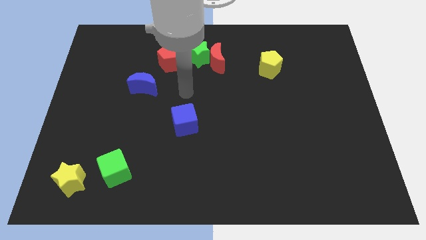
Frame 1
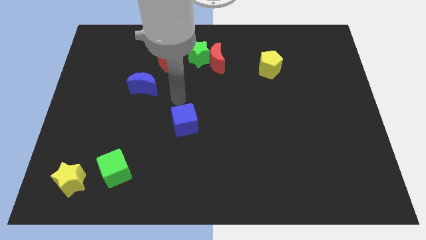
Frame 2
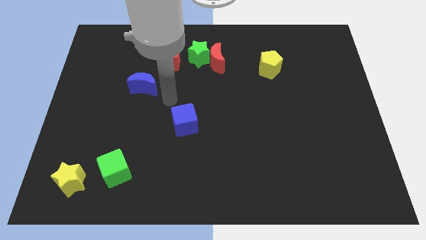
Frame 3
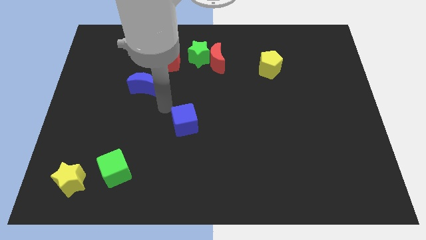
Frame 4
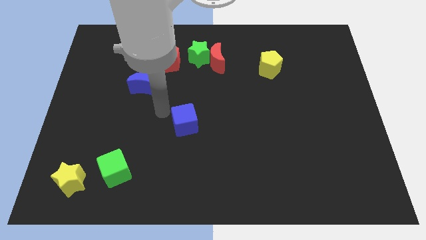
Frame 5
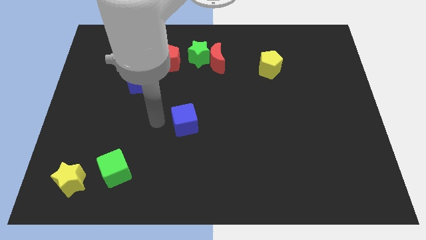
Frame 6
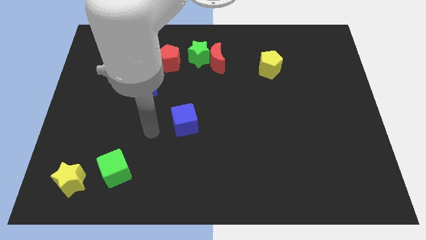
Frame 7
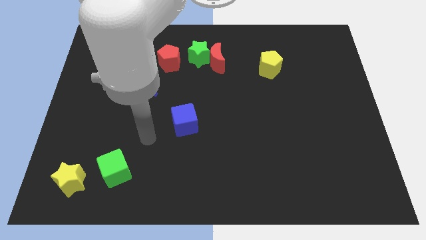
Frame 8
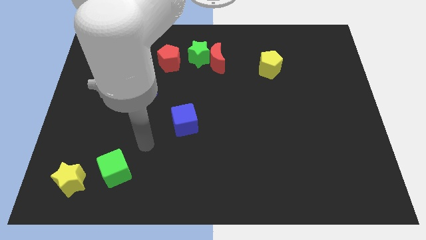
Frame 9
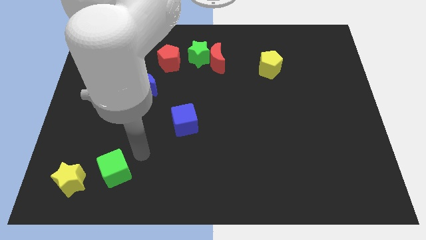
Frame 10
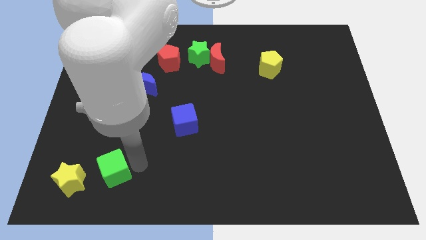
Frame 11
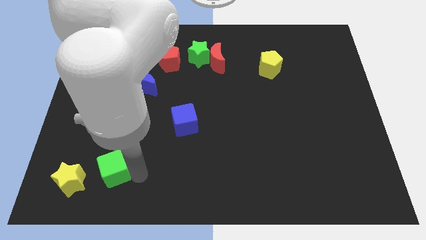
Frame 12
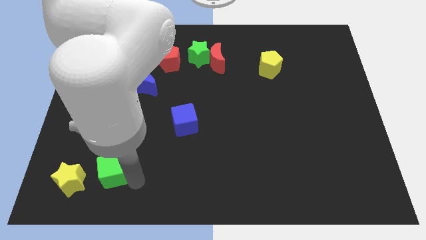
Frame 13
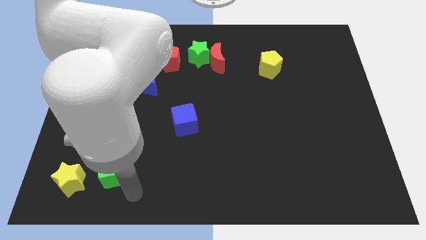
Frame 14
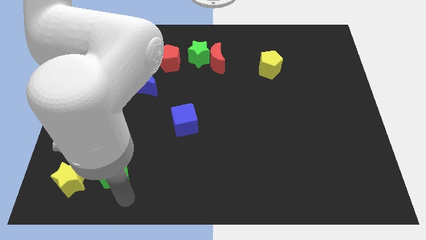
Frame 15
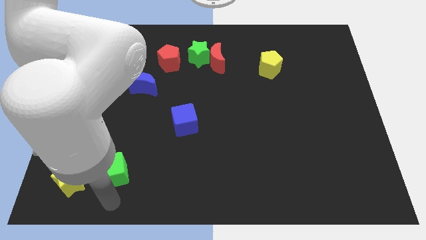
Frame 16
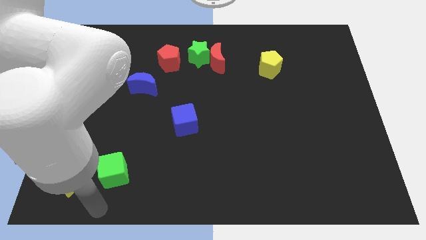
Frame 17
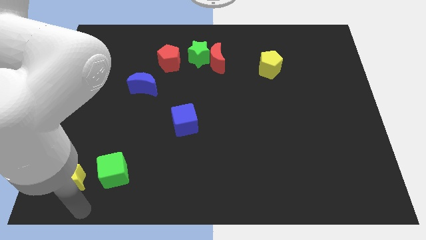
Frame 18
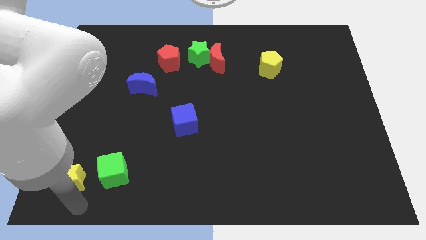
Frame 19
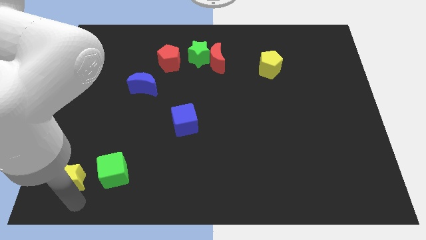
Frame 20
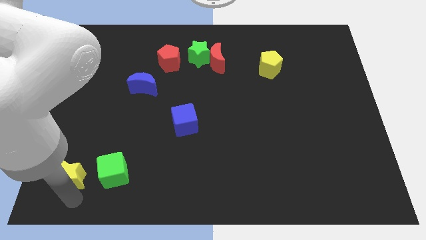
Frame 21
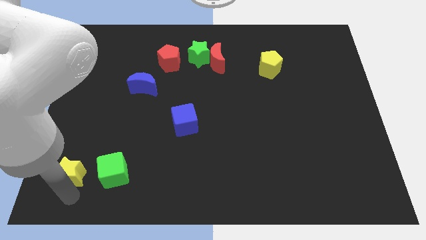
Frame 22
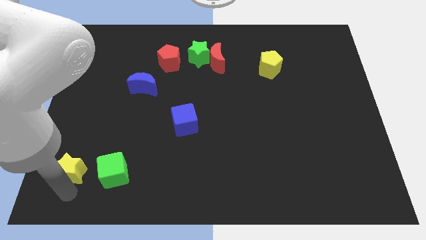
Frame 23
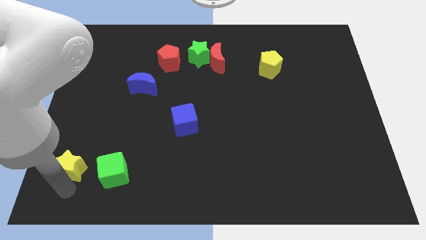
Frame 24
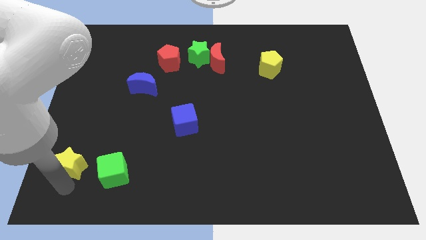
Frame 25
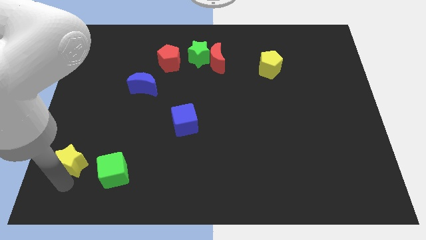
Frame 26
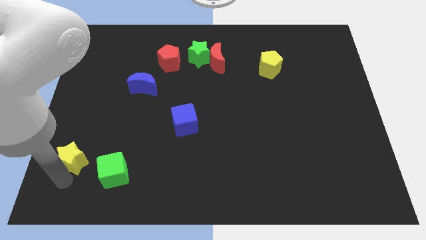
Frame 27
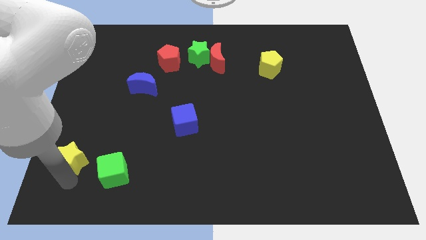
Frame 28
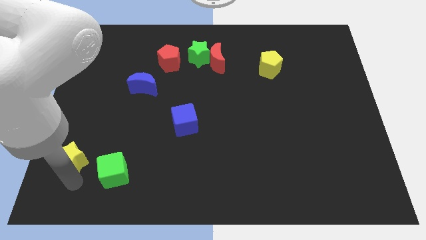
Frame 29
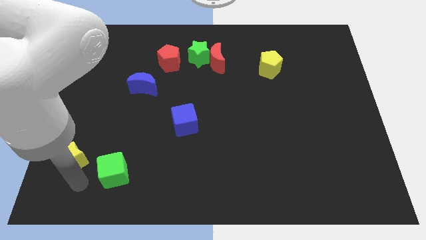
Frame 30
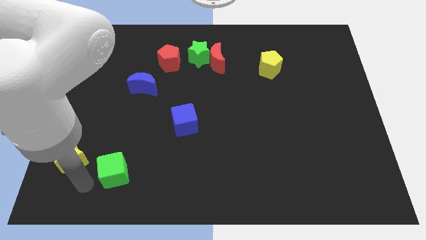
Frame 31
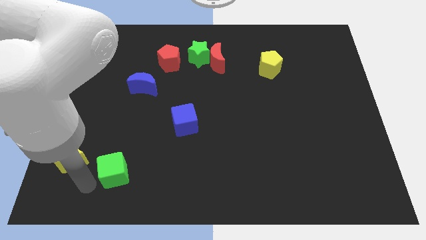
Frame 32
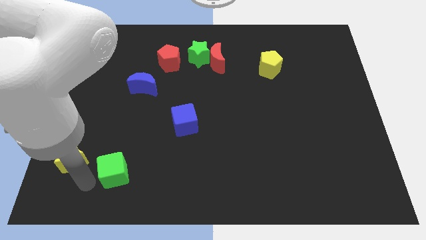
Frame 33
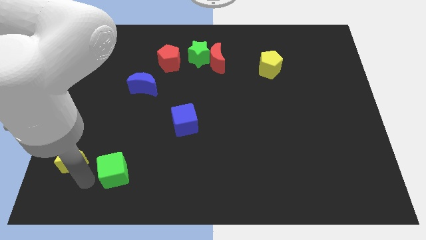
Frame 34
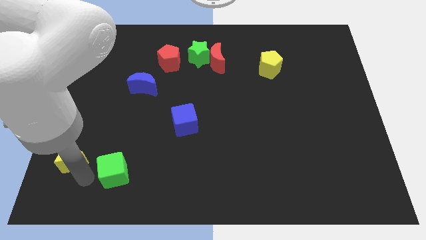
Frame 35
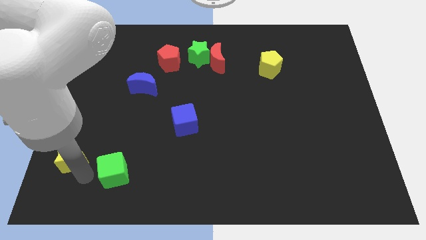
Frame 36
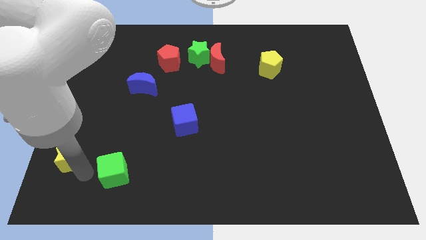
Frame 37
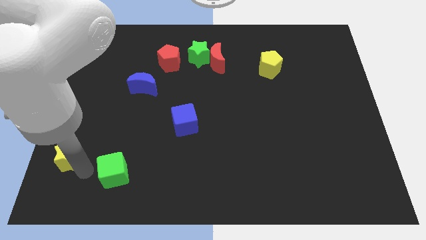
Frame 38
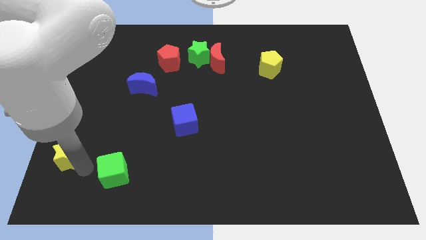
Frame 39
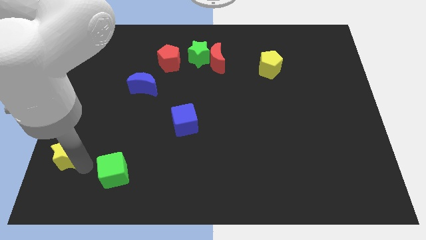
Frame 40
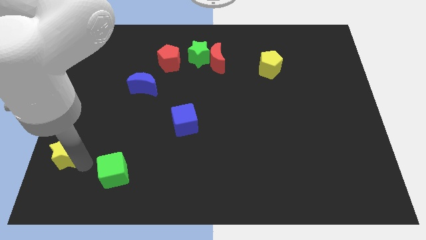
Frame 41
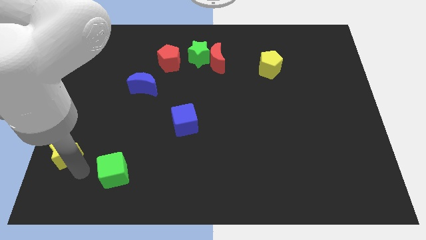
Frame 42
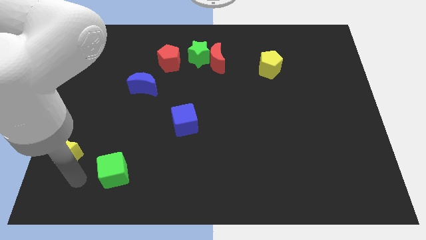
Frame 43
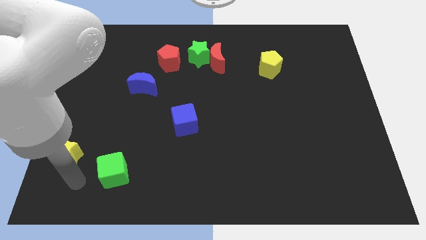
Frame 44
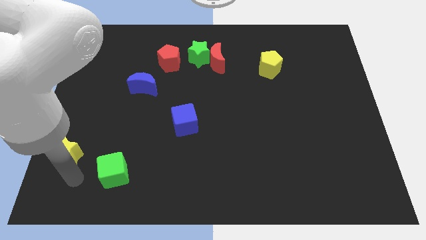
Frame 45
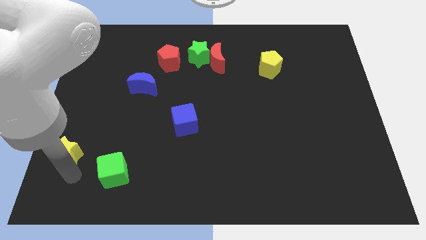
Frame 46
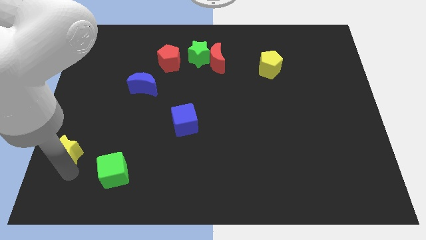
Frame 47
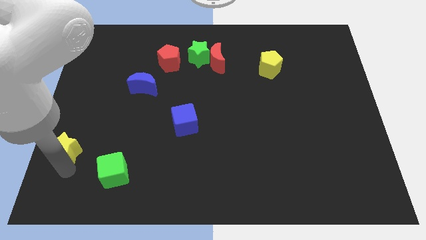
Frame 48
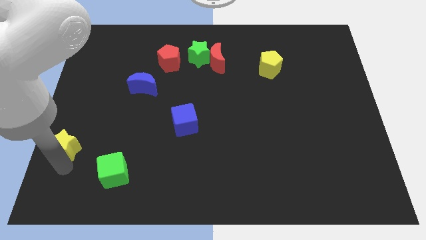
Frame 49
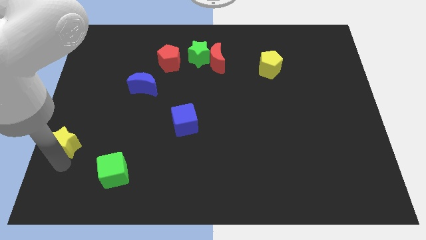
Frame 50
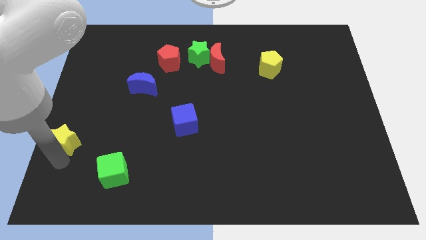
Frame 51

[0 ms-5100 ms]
push the yellow star to the center left

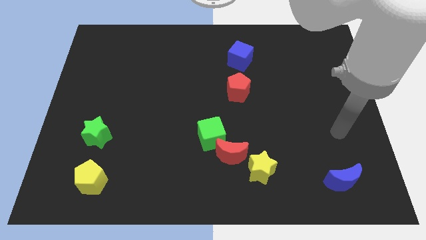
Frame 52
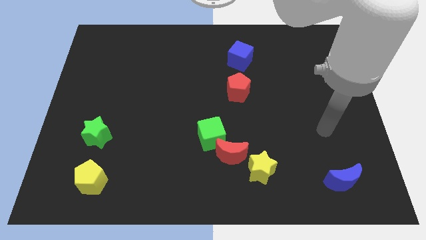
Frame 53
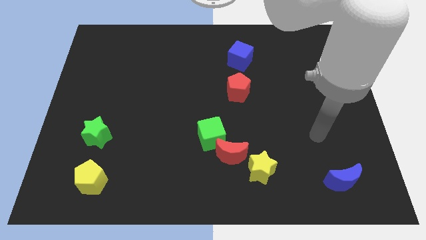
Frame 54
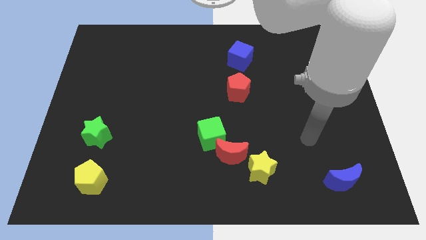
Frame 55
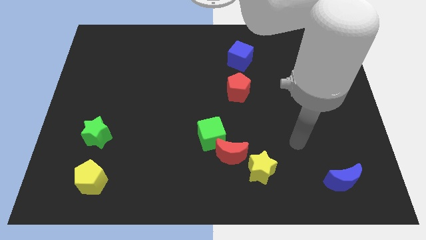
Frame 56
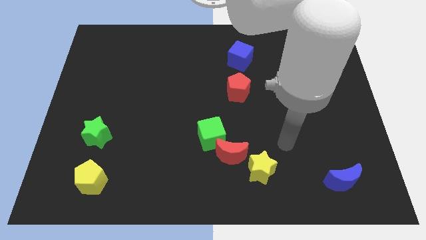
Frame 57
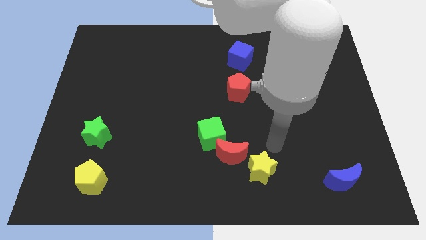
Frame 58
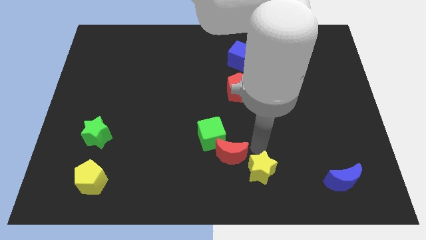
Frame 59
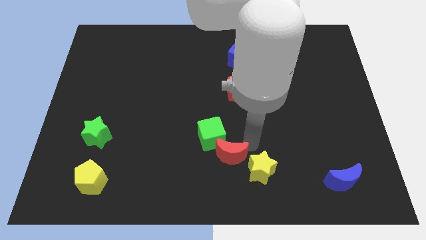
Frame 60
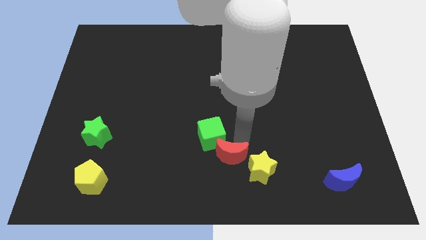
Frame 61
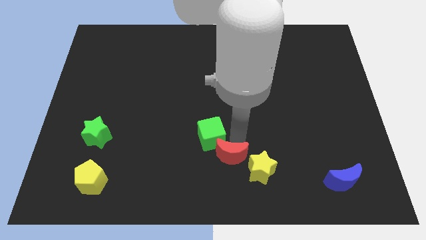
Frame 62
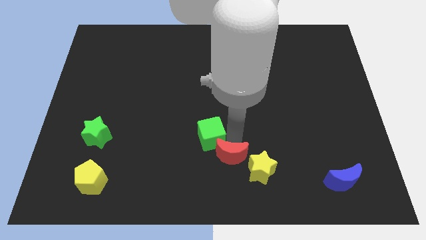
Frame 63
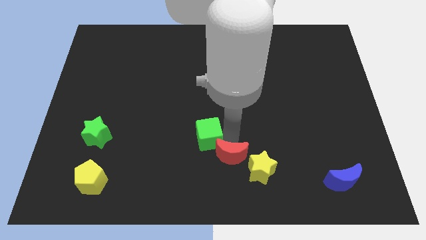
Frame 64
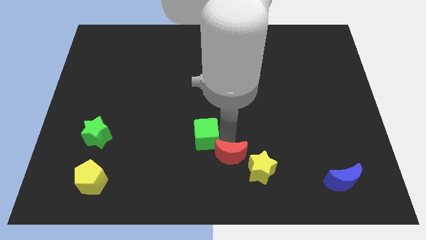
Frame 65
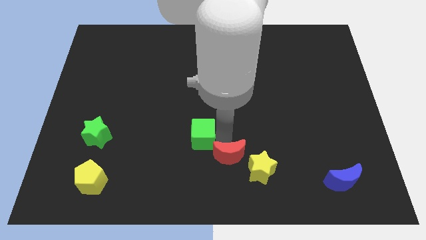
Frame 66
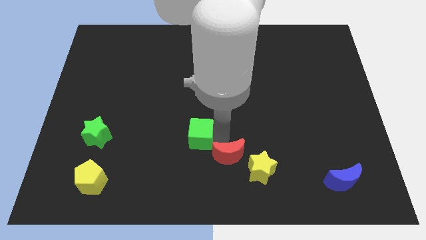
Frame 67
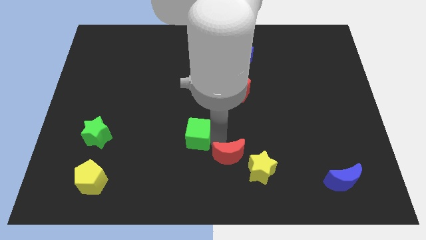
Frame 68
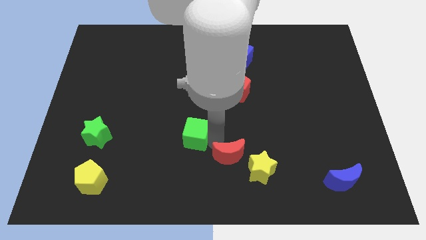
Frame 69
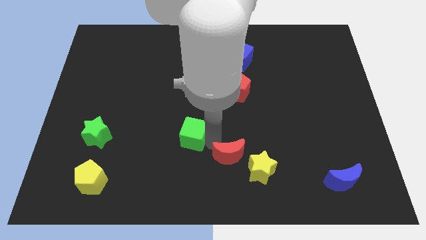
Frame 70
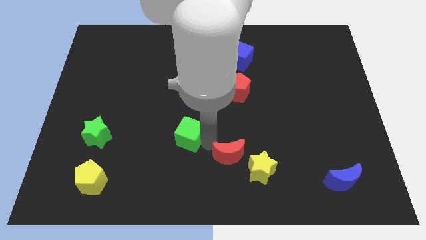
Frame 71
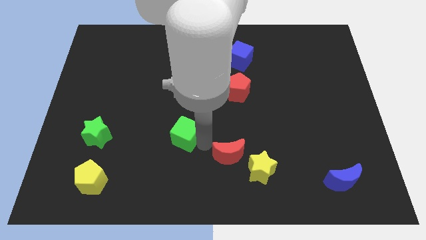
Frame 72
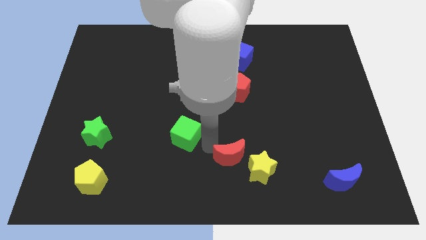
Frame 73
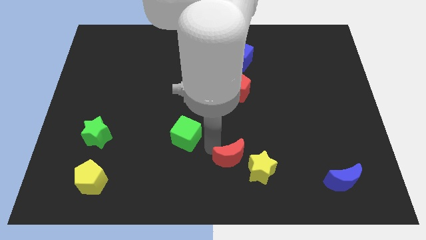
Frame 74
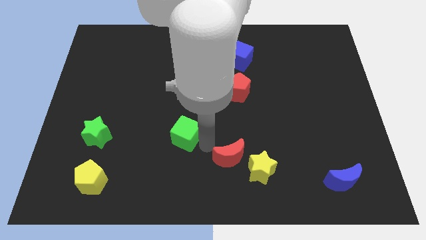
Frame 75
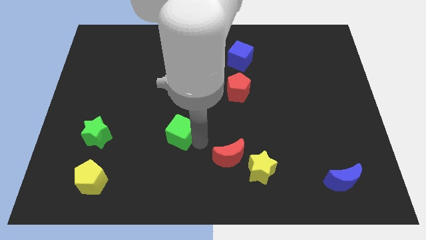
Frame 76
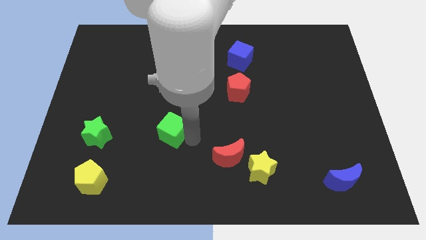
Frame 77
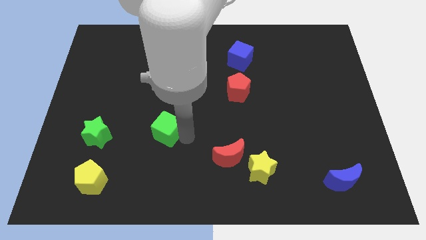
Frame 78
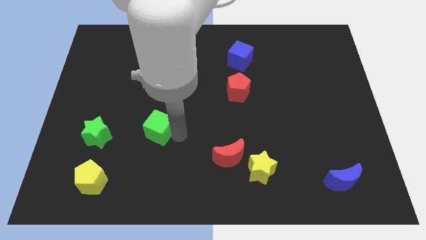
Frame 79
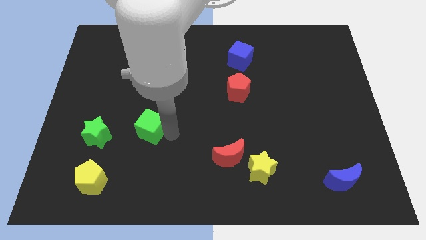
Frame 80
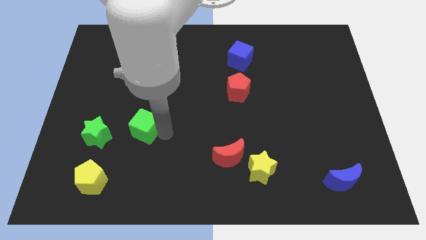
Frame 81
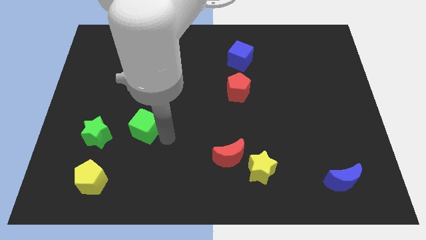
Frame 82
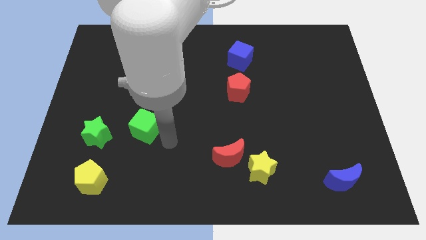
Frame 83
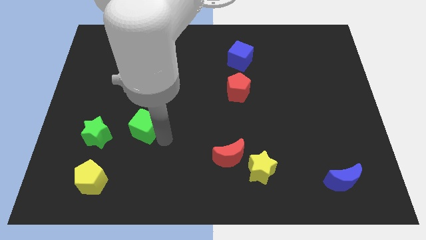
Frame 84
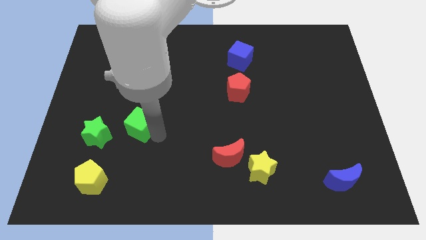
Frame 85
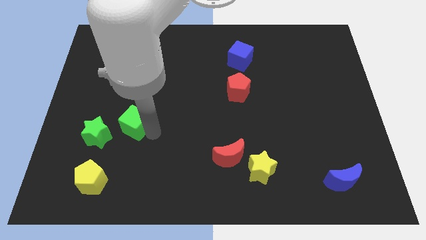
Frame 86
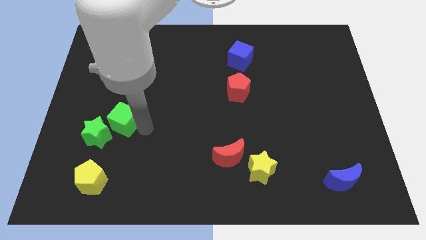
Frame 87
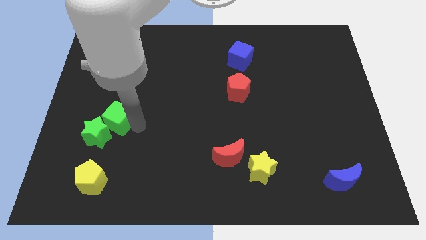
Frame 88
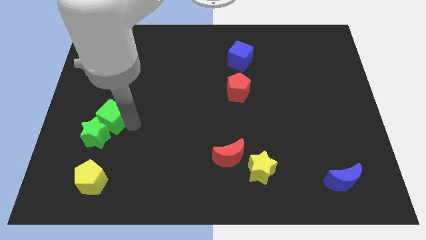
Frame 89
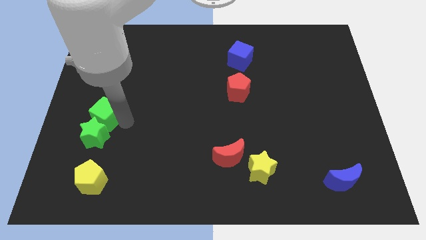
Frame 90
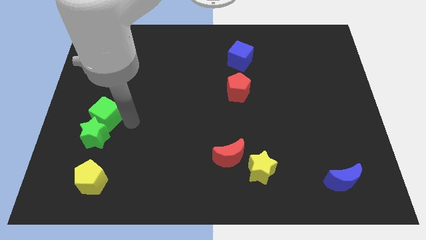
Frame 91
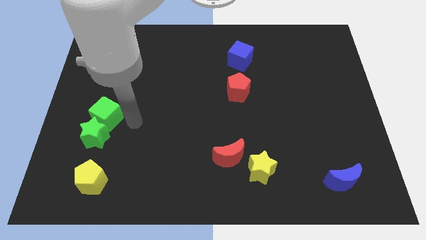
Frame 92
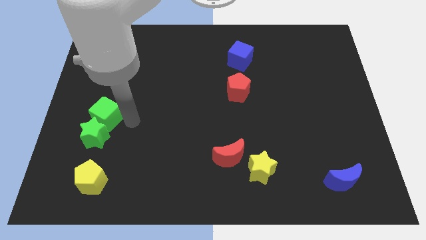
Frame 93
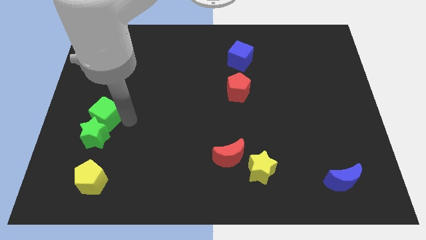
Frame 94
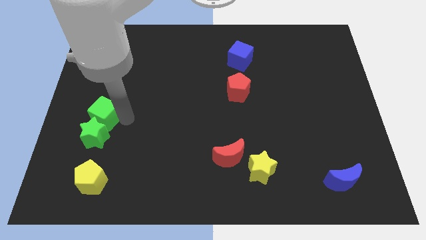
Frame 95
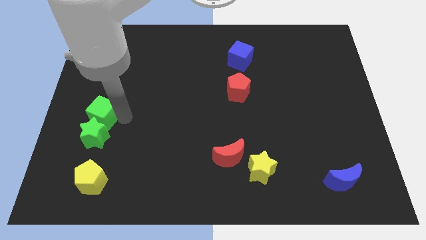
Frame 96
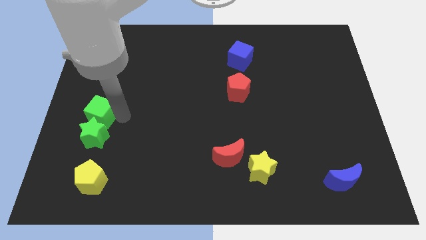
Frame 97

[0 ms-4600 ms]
put the green cube to the center left
